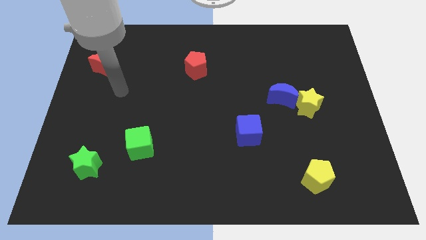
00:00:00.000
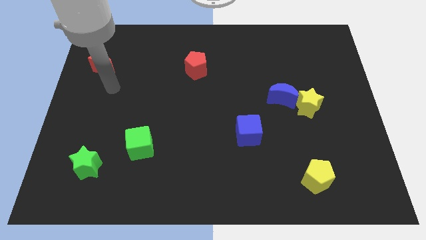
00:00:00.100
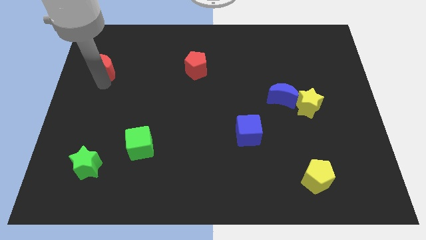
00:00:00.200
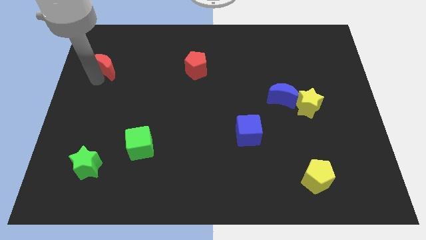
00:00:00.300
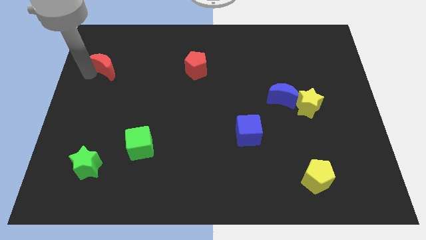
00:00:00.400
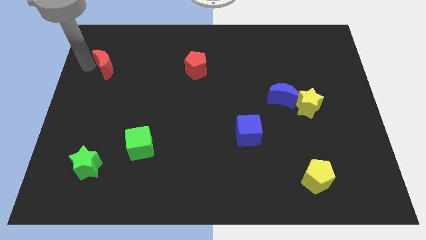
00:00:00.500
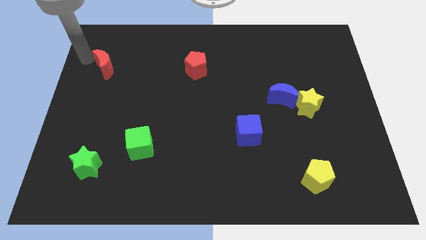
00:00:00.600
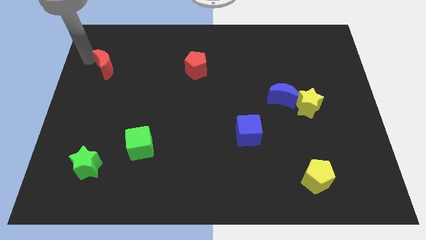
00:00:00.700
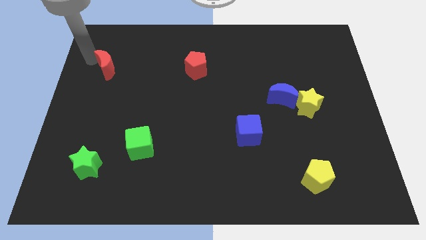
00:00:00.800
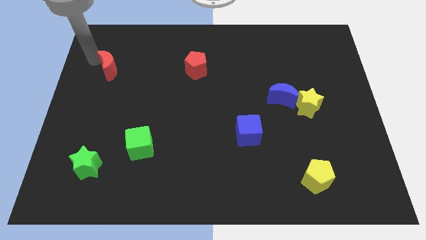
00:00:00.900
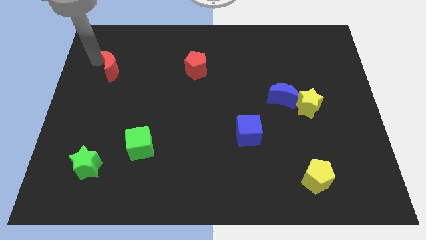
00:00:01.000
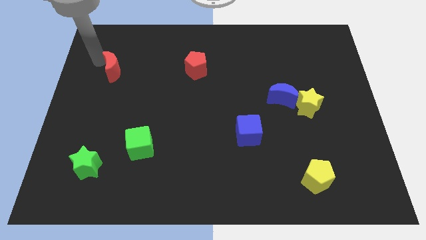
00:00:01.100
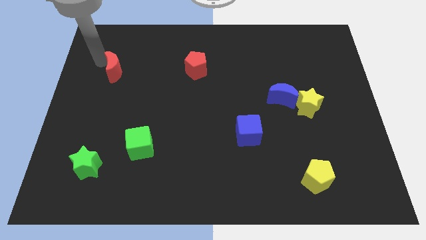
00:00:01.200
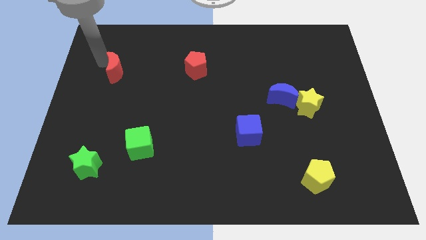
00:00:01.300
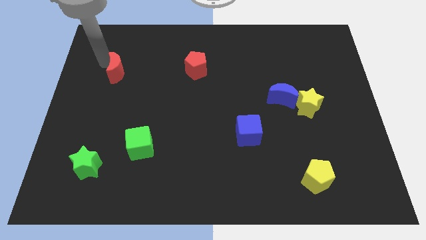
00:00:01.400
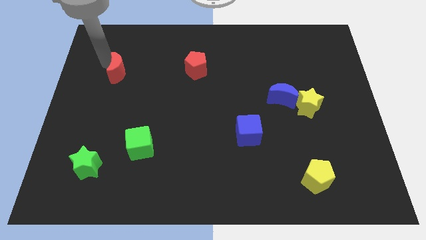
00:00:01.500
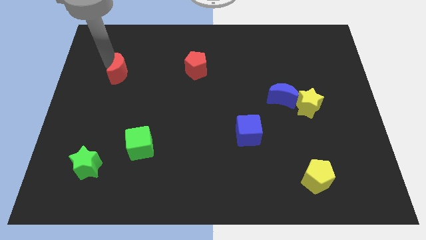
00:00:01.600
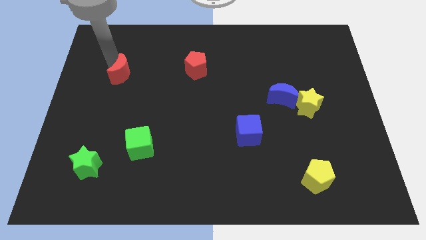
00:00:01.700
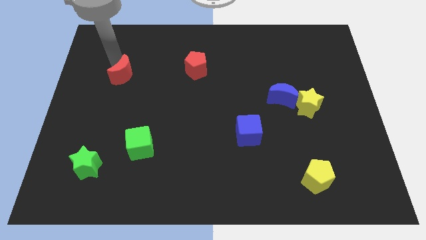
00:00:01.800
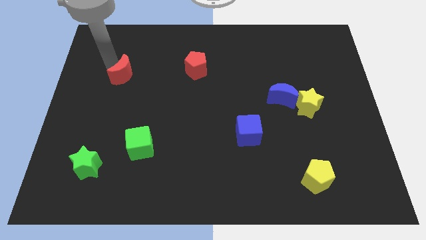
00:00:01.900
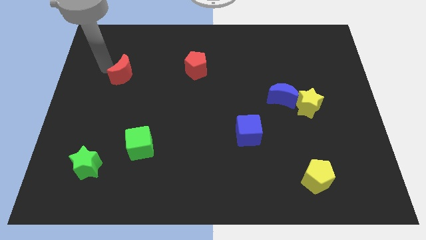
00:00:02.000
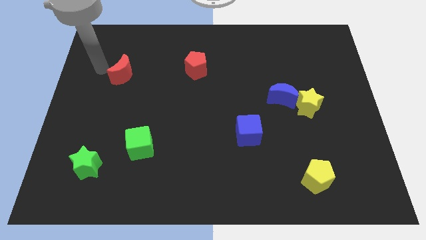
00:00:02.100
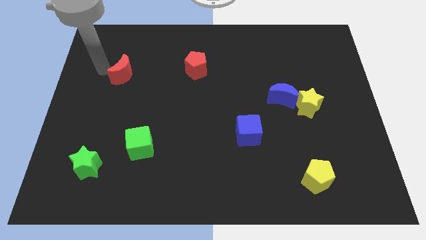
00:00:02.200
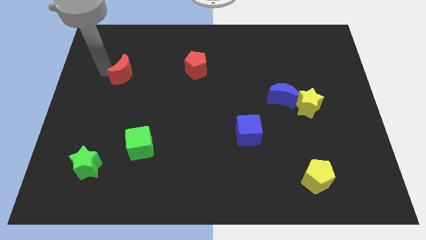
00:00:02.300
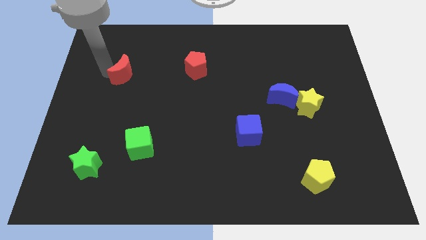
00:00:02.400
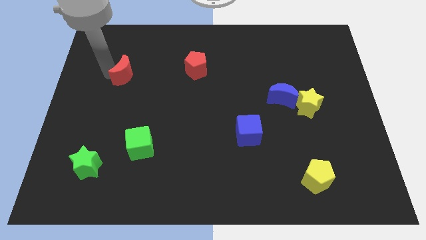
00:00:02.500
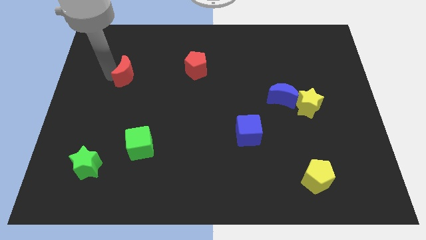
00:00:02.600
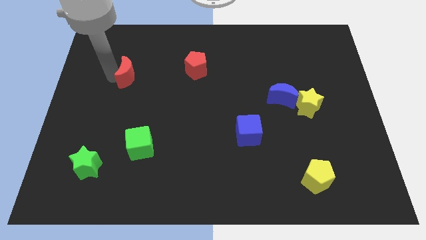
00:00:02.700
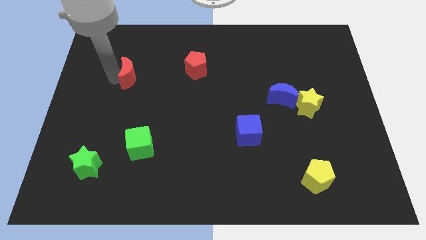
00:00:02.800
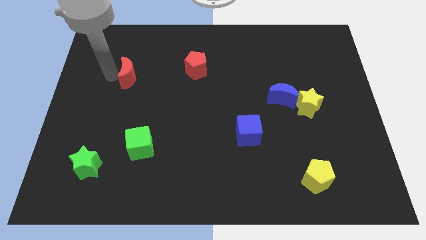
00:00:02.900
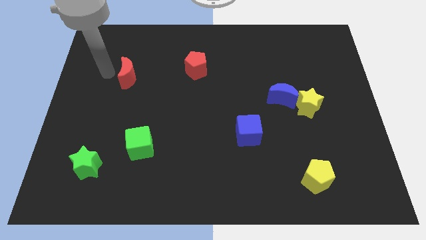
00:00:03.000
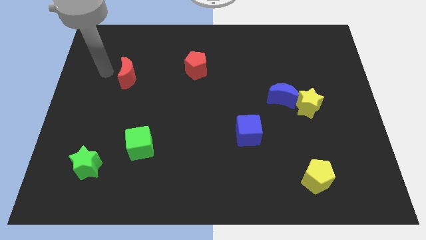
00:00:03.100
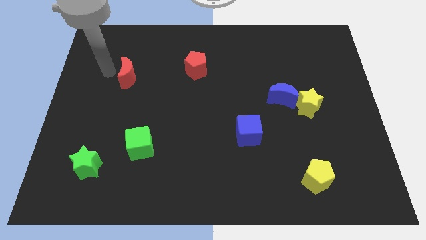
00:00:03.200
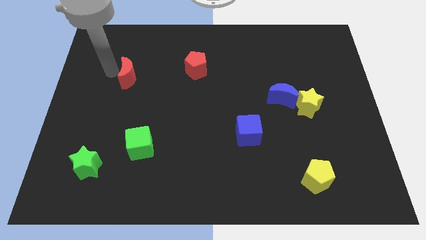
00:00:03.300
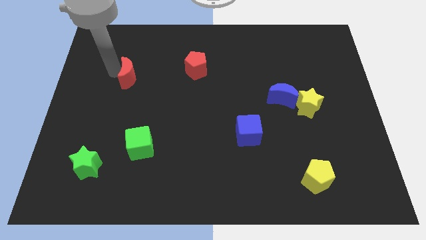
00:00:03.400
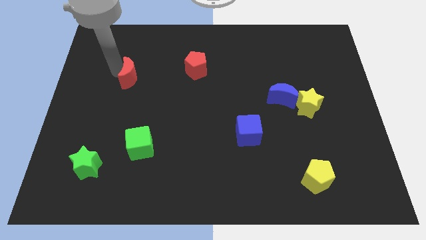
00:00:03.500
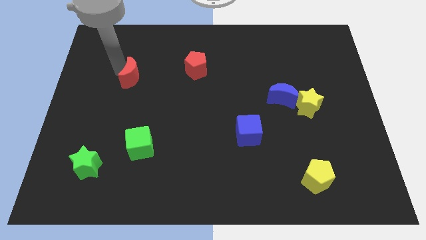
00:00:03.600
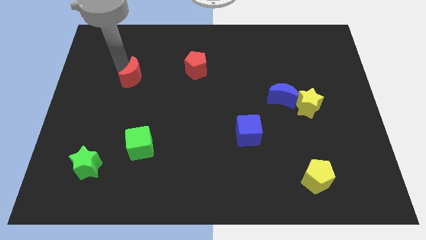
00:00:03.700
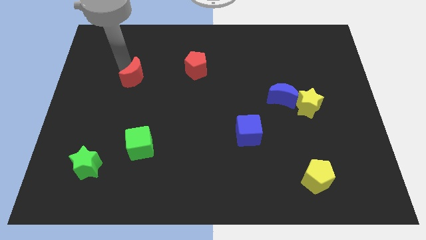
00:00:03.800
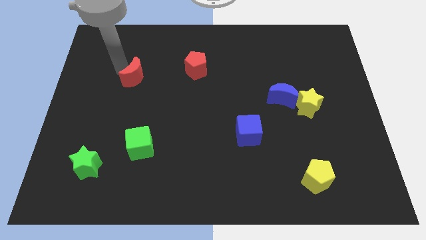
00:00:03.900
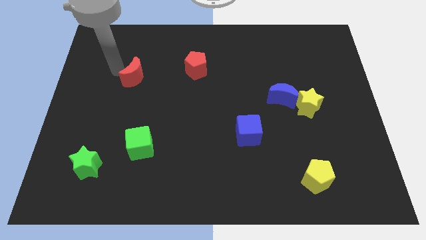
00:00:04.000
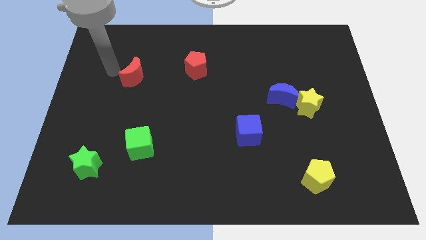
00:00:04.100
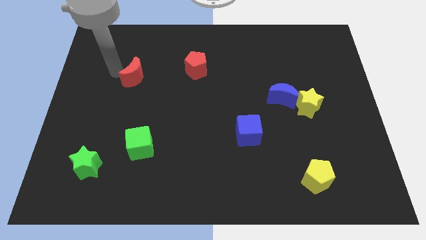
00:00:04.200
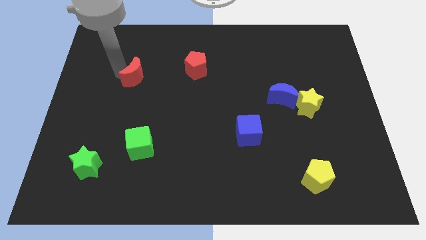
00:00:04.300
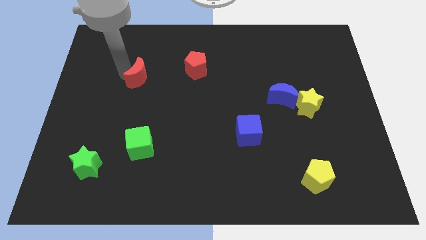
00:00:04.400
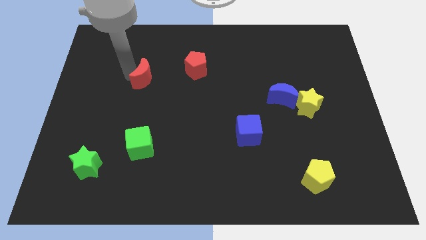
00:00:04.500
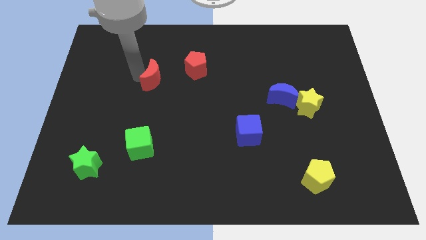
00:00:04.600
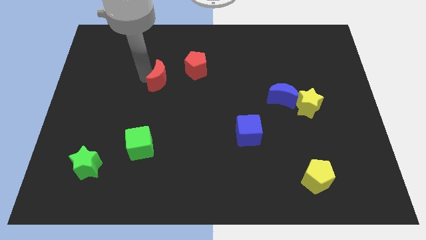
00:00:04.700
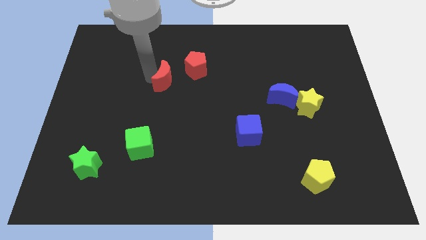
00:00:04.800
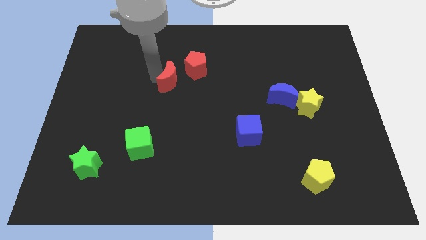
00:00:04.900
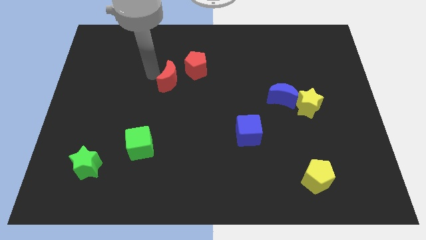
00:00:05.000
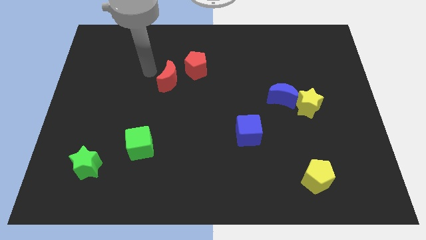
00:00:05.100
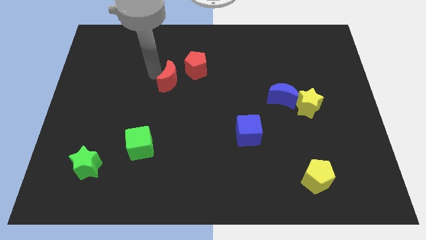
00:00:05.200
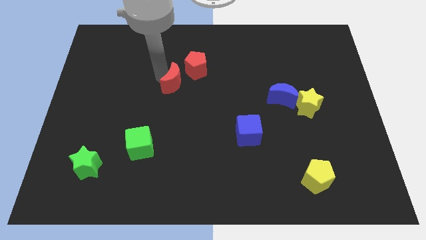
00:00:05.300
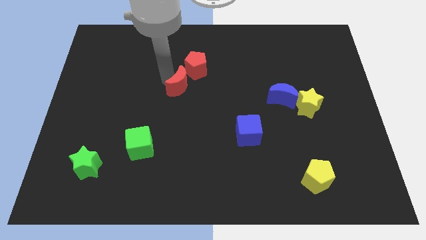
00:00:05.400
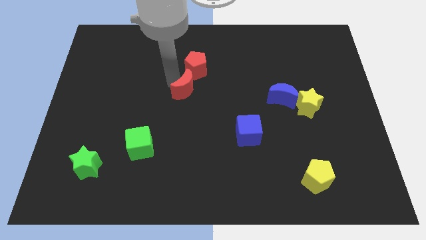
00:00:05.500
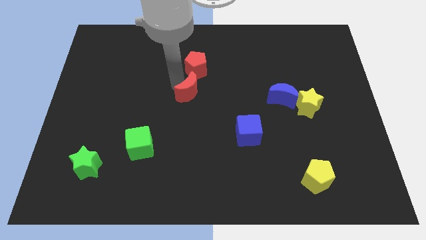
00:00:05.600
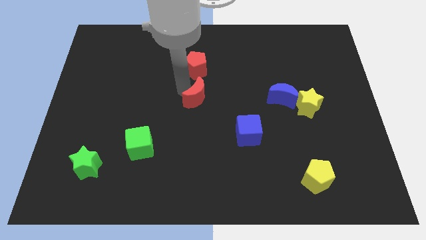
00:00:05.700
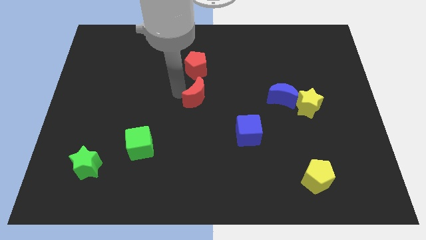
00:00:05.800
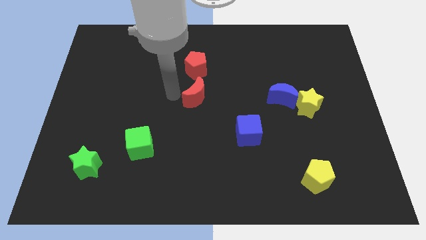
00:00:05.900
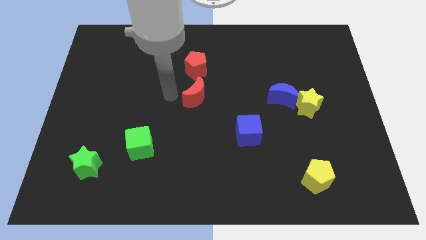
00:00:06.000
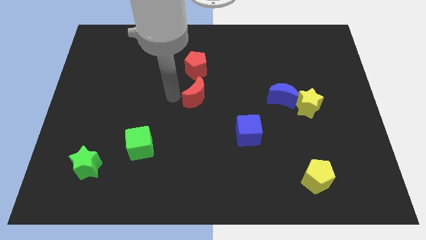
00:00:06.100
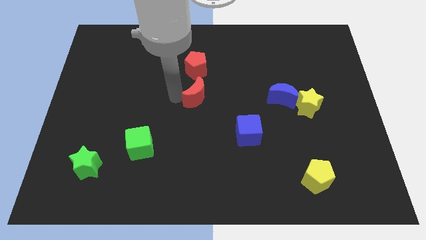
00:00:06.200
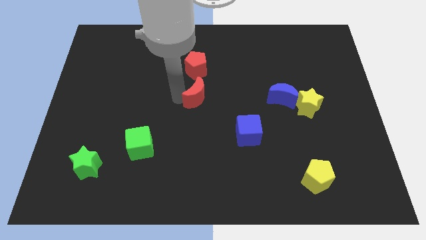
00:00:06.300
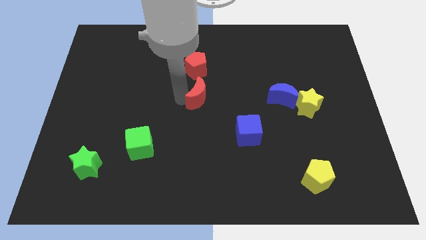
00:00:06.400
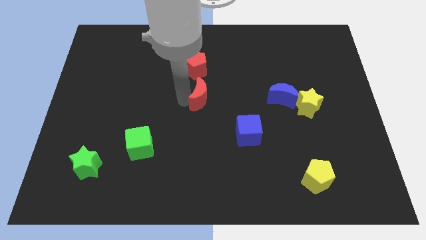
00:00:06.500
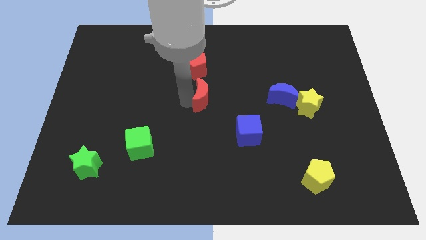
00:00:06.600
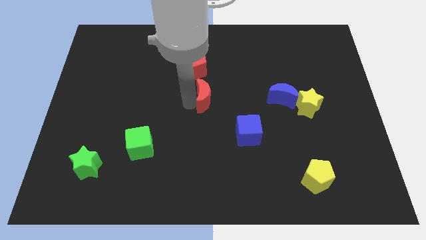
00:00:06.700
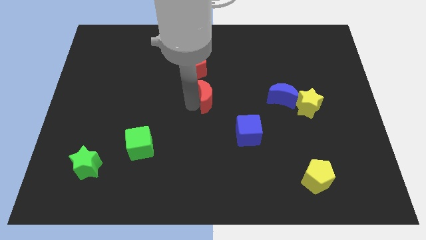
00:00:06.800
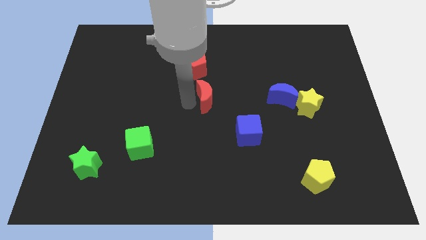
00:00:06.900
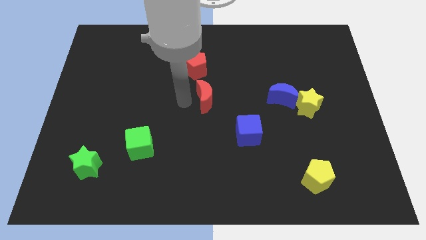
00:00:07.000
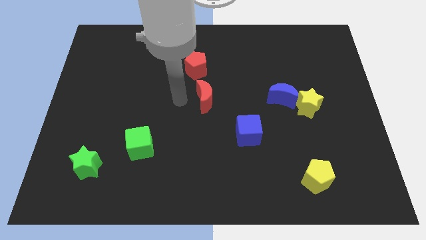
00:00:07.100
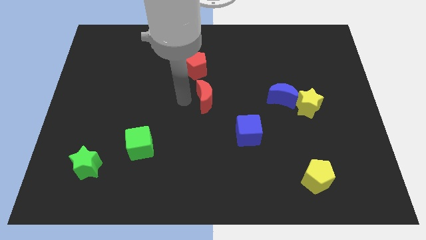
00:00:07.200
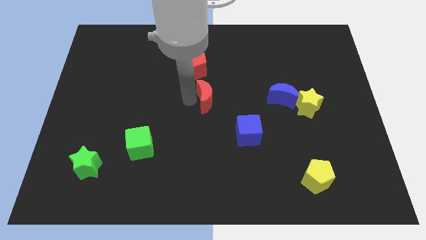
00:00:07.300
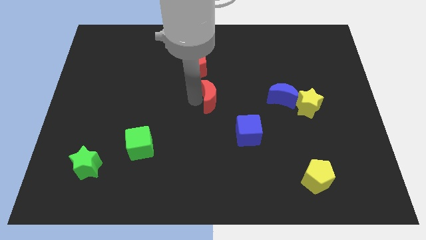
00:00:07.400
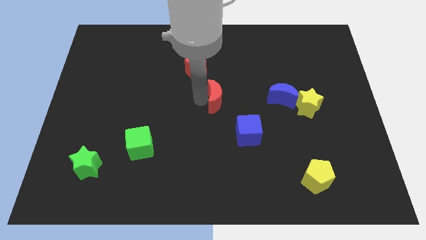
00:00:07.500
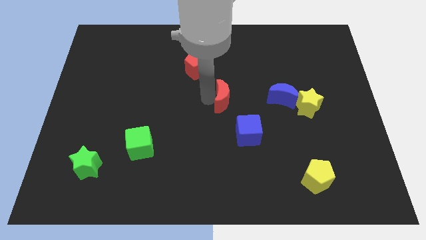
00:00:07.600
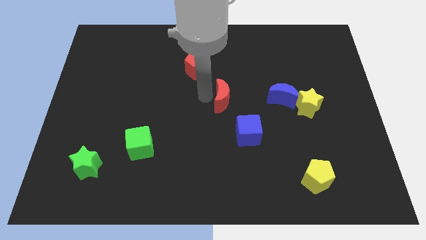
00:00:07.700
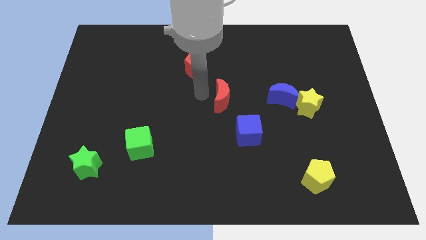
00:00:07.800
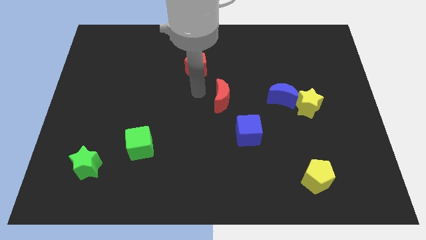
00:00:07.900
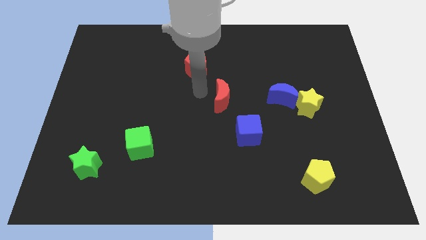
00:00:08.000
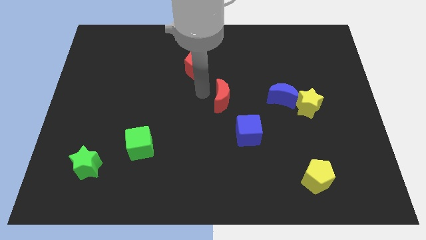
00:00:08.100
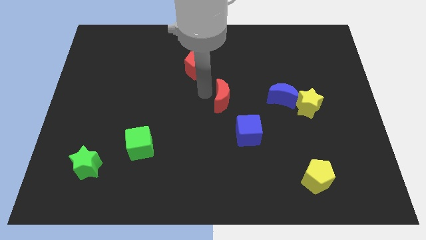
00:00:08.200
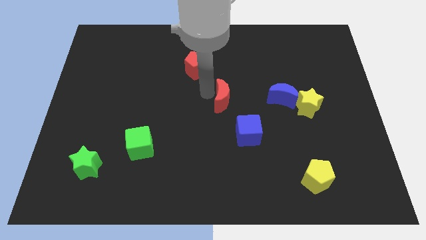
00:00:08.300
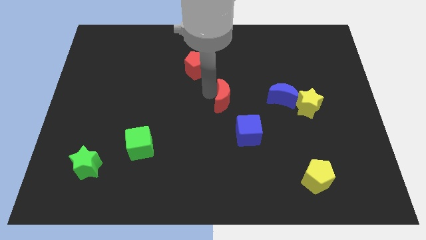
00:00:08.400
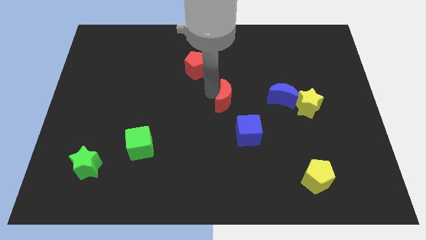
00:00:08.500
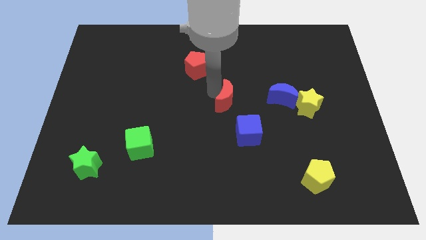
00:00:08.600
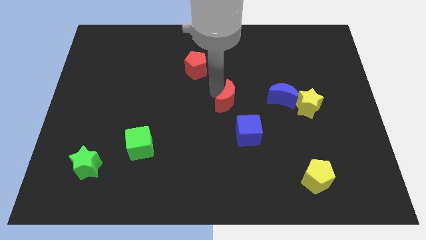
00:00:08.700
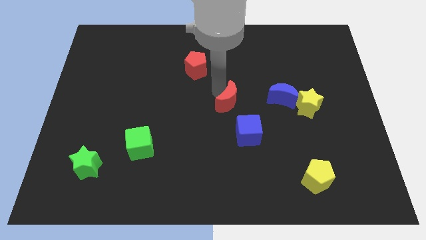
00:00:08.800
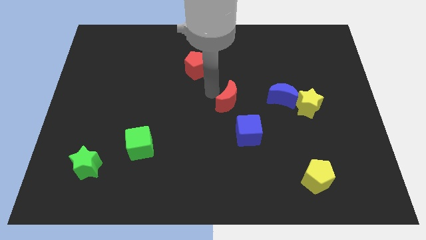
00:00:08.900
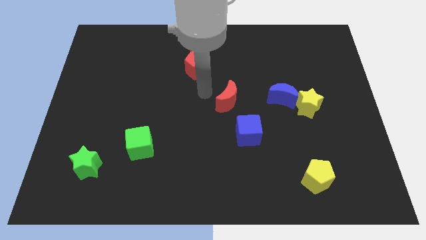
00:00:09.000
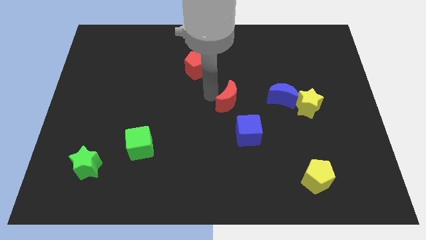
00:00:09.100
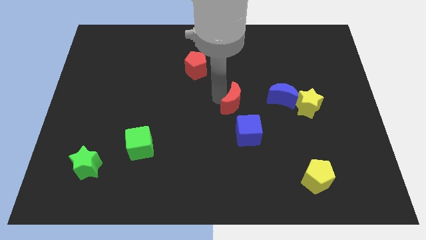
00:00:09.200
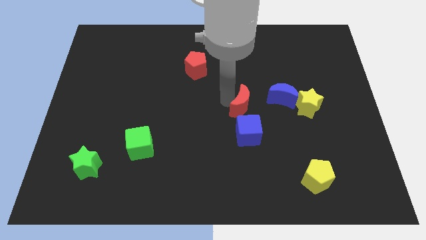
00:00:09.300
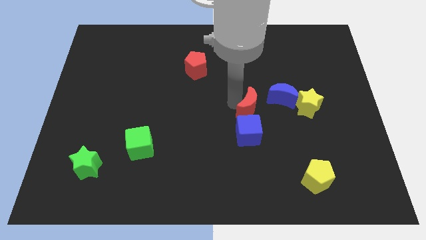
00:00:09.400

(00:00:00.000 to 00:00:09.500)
put the red moon to the top right of the blue cube
